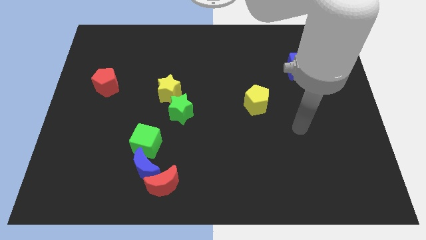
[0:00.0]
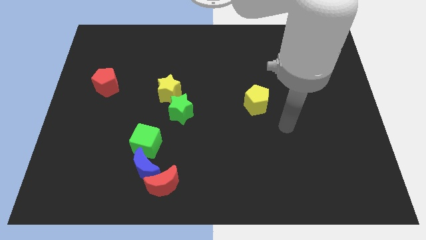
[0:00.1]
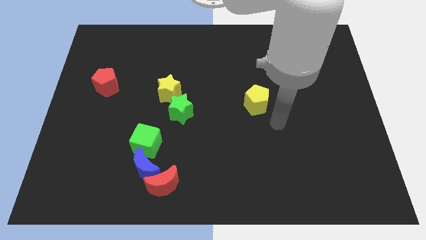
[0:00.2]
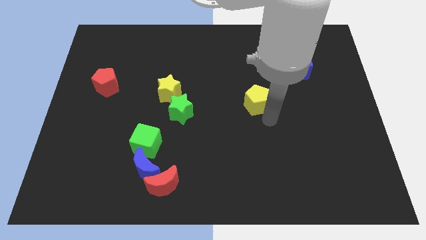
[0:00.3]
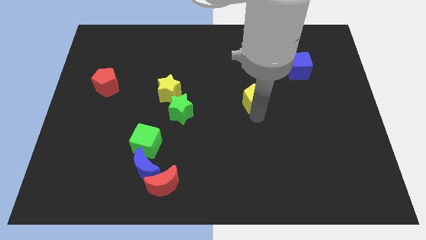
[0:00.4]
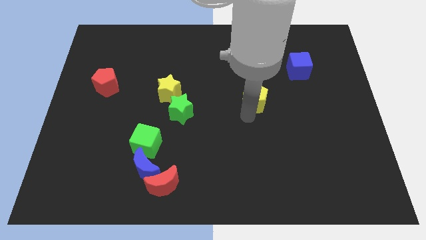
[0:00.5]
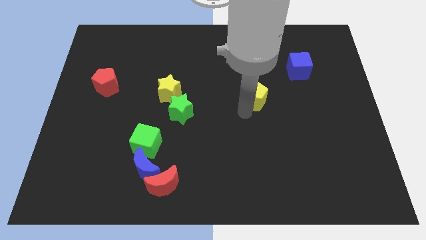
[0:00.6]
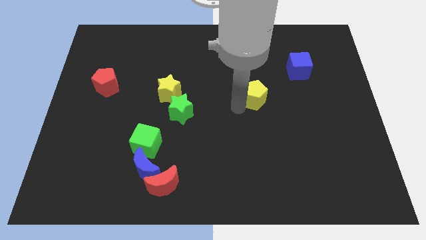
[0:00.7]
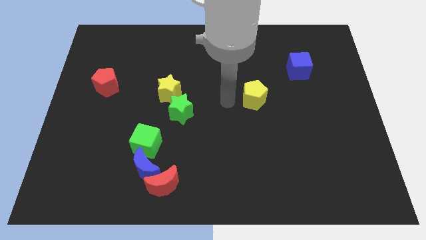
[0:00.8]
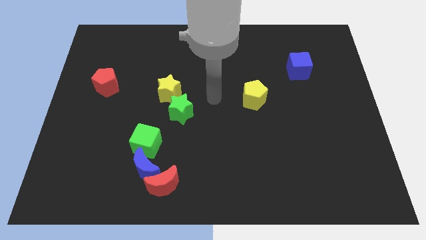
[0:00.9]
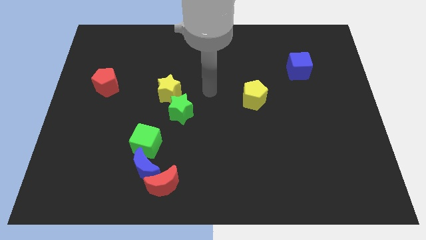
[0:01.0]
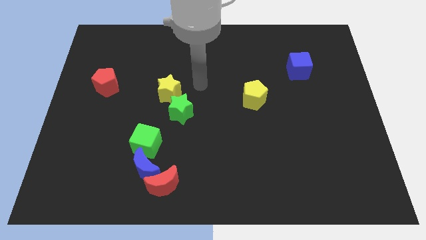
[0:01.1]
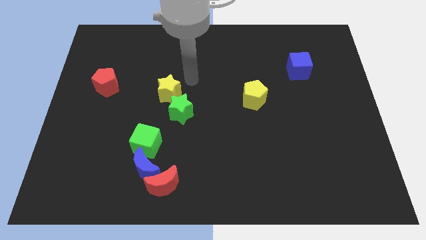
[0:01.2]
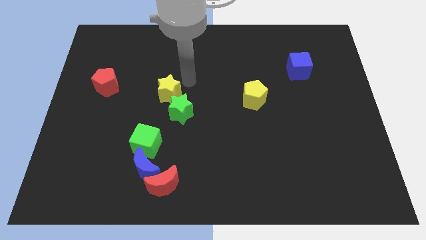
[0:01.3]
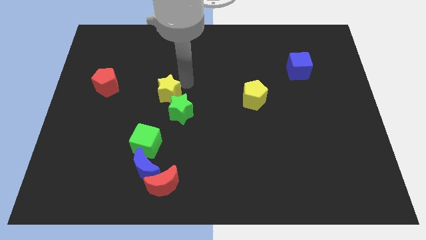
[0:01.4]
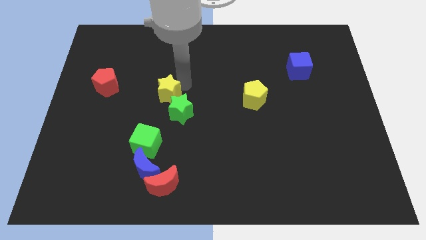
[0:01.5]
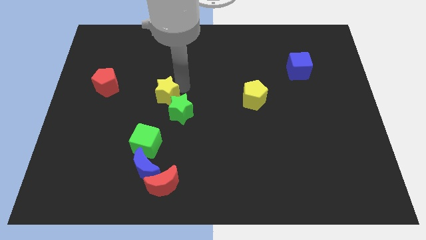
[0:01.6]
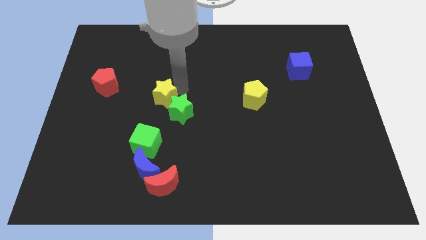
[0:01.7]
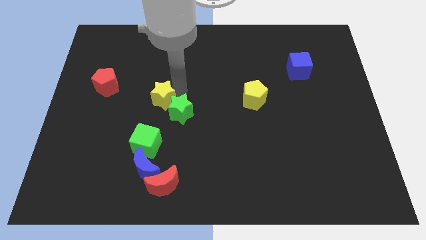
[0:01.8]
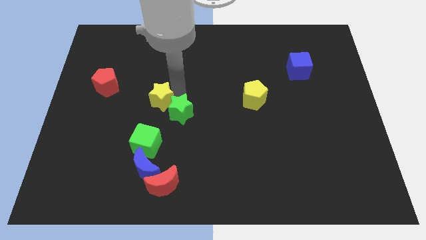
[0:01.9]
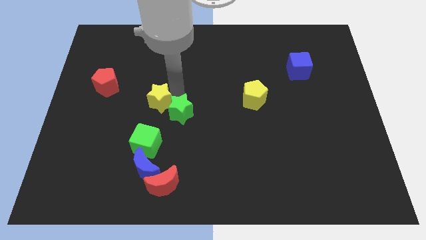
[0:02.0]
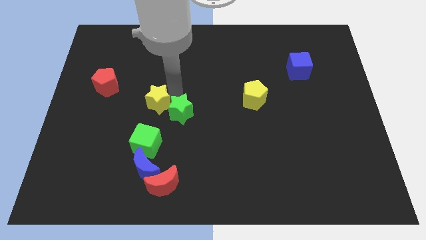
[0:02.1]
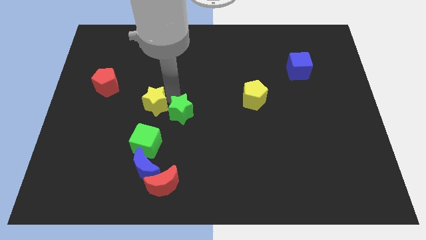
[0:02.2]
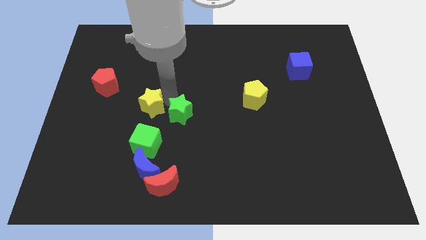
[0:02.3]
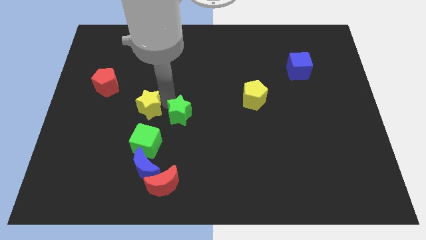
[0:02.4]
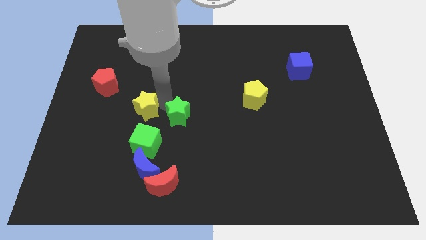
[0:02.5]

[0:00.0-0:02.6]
slightly push the yellow star down and to the left

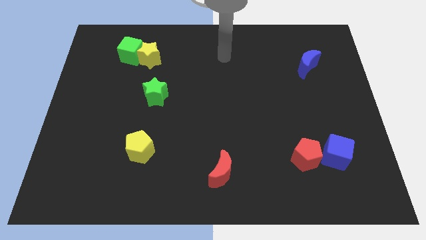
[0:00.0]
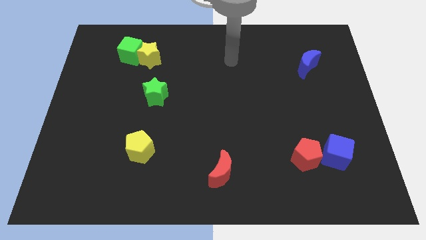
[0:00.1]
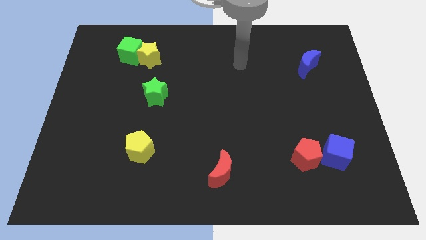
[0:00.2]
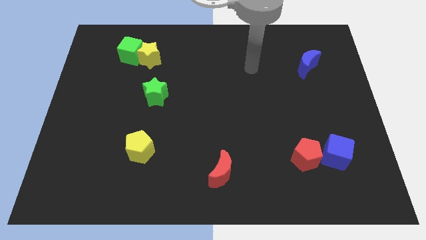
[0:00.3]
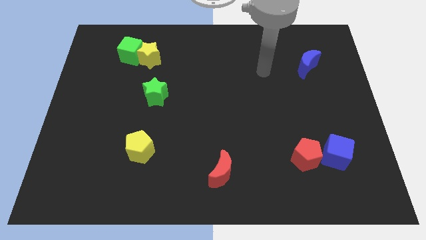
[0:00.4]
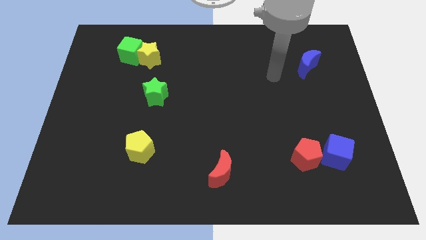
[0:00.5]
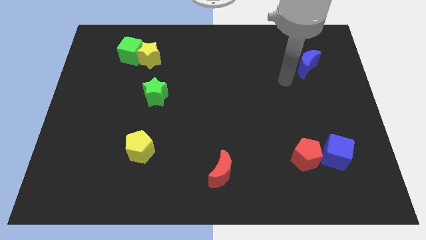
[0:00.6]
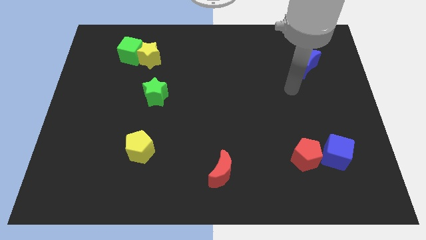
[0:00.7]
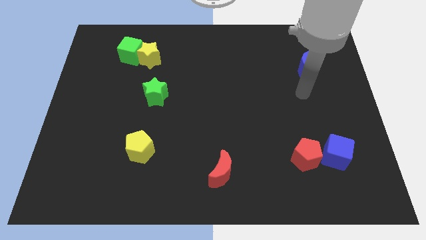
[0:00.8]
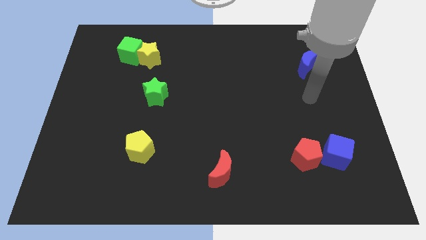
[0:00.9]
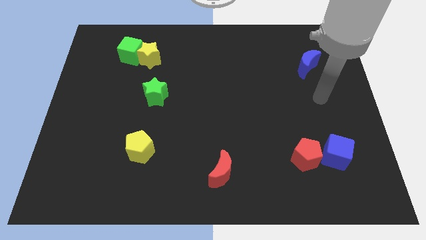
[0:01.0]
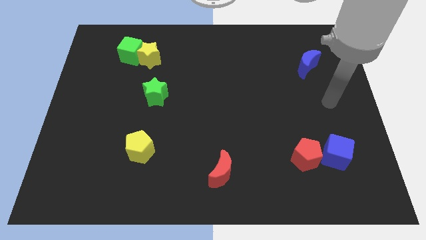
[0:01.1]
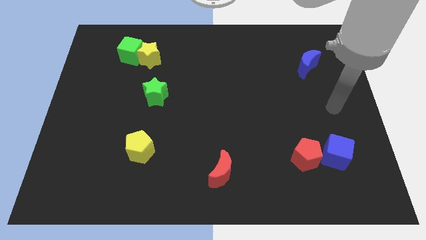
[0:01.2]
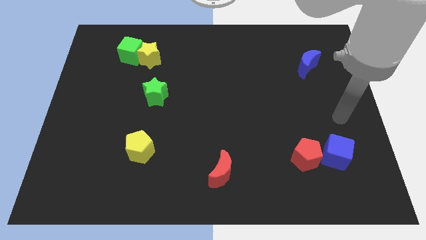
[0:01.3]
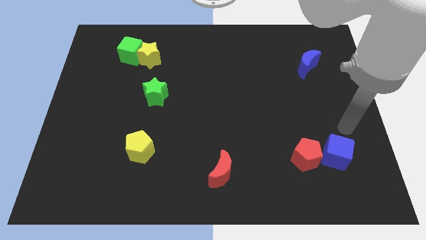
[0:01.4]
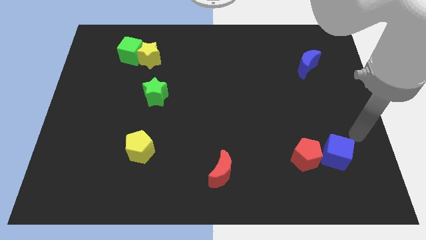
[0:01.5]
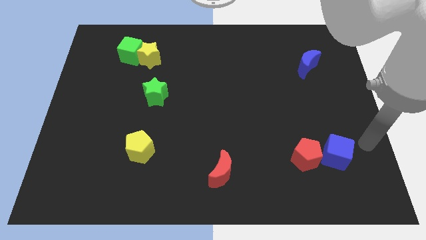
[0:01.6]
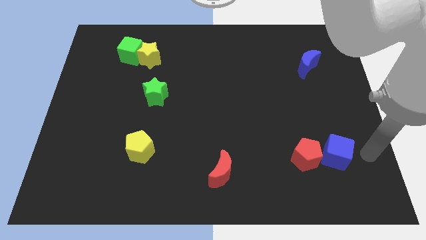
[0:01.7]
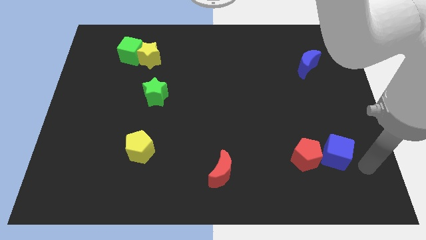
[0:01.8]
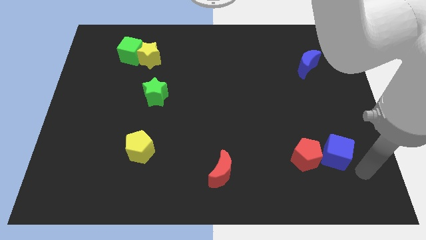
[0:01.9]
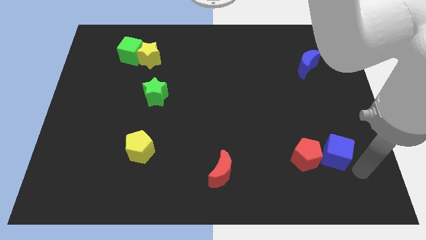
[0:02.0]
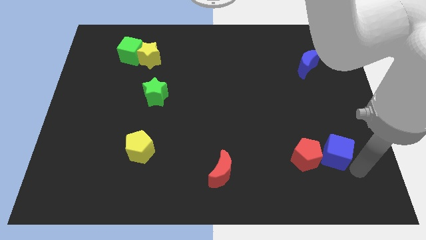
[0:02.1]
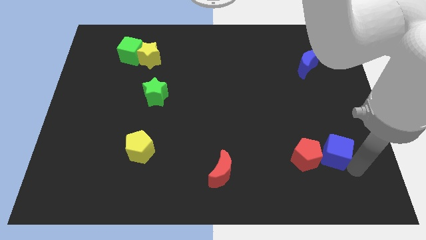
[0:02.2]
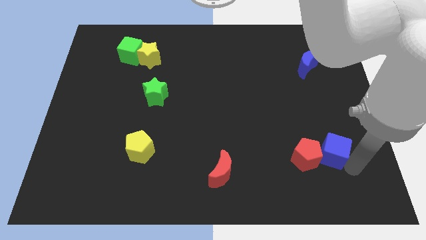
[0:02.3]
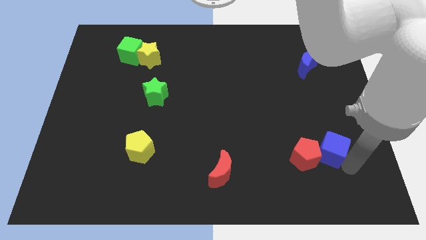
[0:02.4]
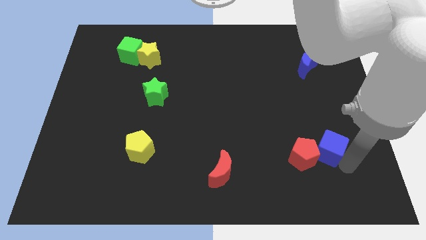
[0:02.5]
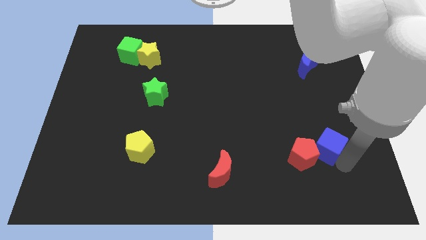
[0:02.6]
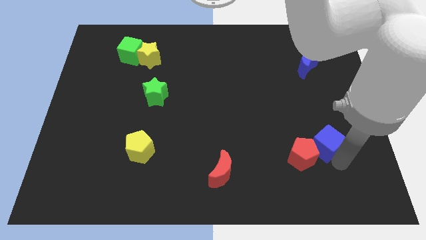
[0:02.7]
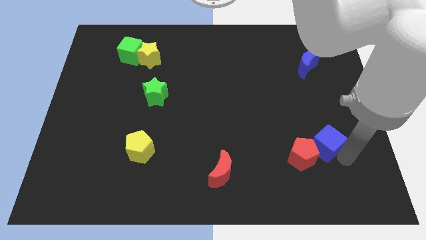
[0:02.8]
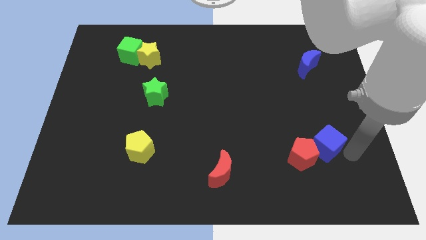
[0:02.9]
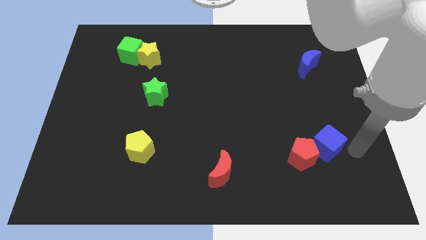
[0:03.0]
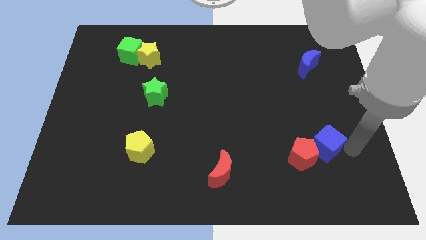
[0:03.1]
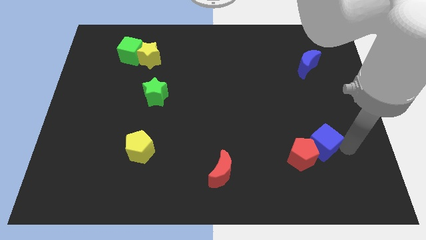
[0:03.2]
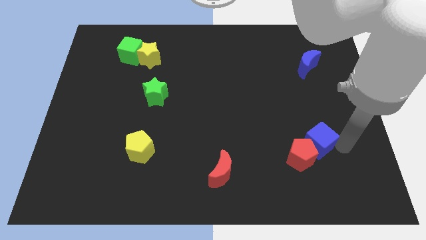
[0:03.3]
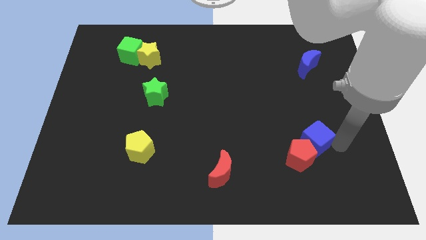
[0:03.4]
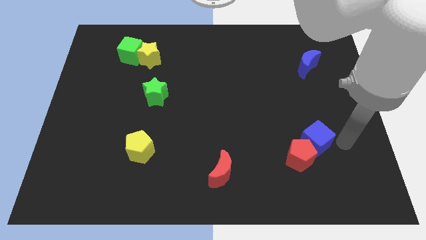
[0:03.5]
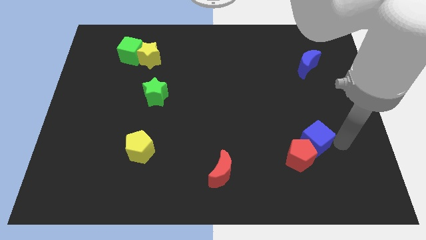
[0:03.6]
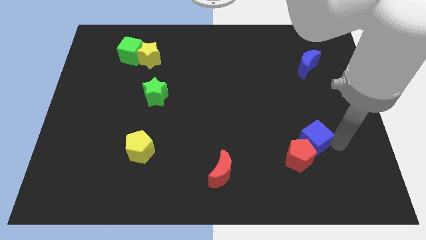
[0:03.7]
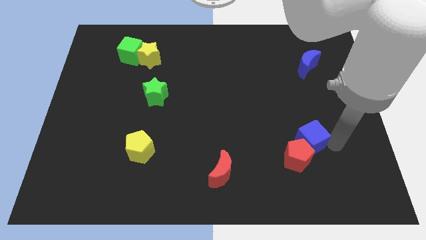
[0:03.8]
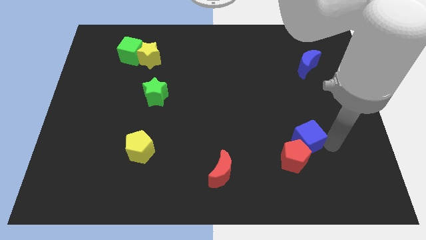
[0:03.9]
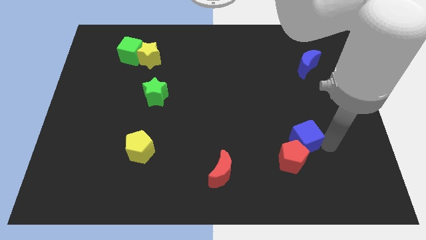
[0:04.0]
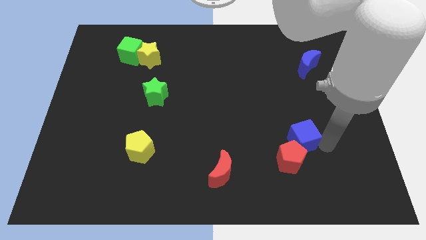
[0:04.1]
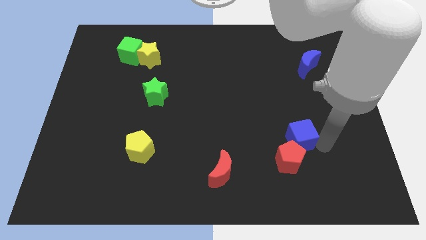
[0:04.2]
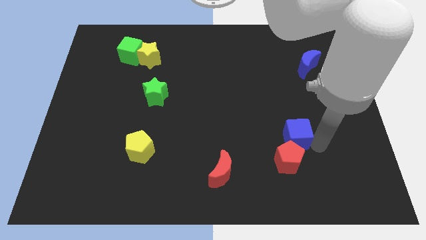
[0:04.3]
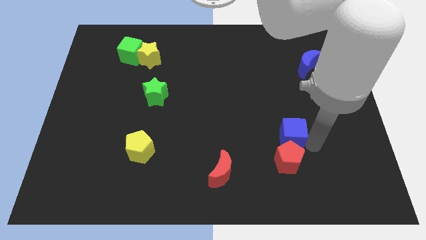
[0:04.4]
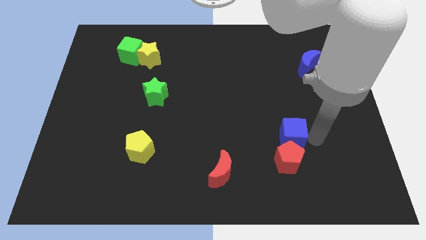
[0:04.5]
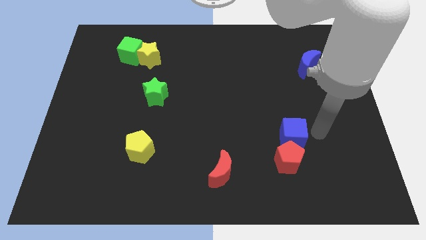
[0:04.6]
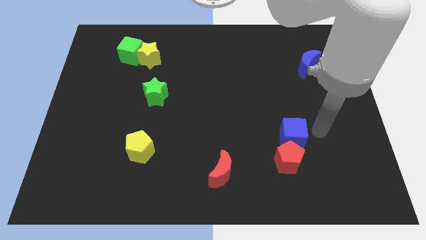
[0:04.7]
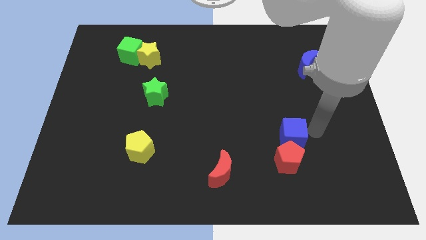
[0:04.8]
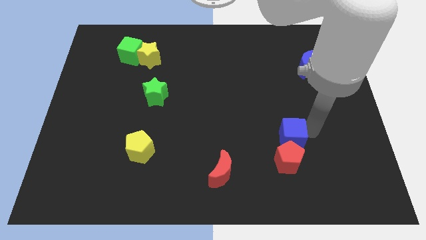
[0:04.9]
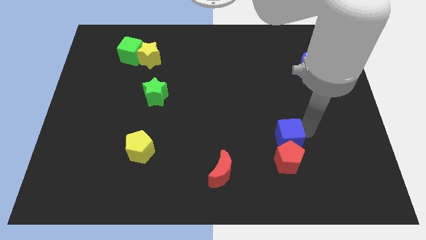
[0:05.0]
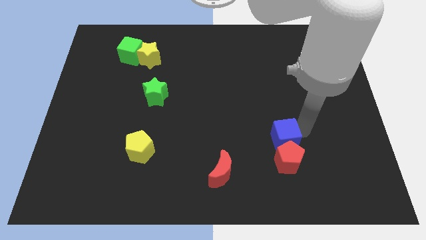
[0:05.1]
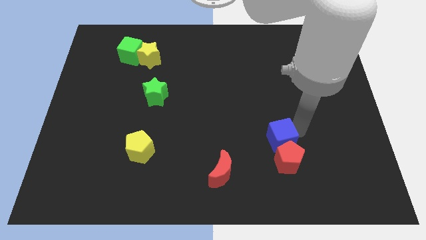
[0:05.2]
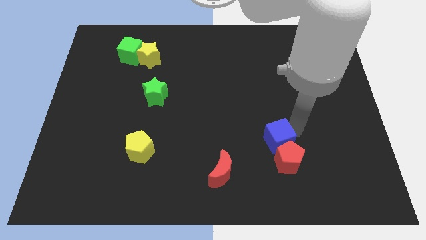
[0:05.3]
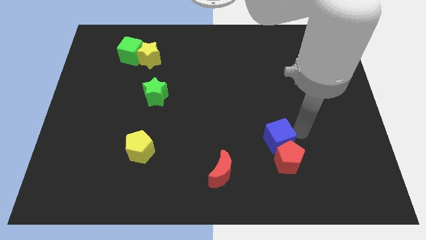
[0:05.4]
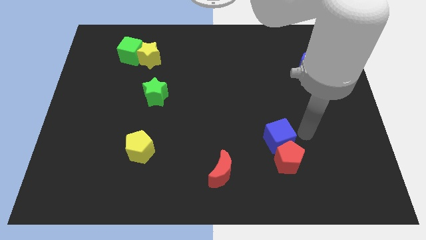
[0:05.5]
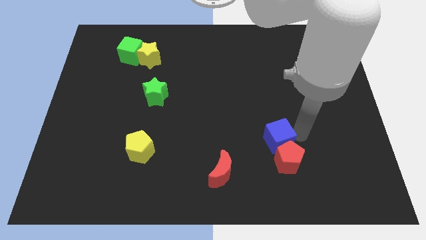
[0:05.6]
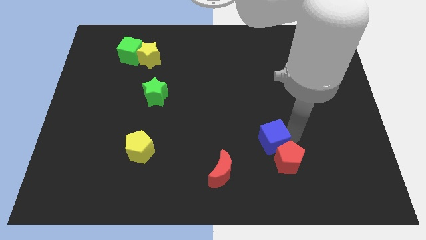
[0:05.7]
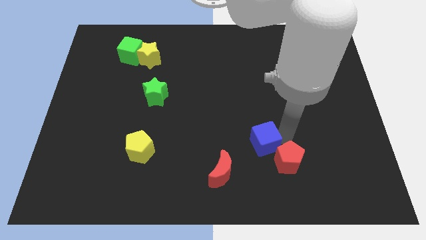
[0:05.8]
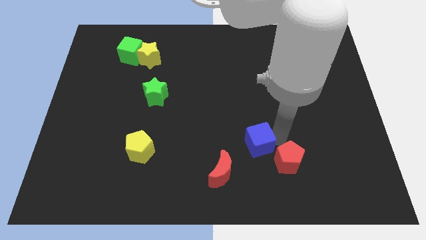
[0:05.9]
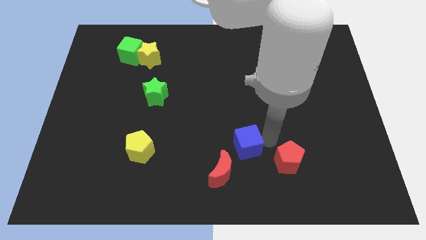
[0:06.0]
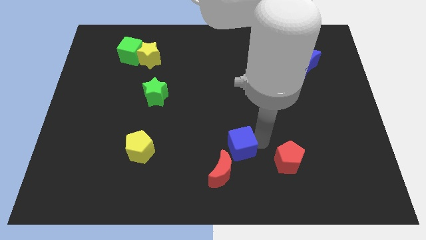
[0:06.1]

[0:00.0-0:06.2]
slide the blue cube left
